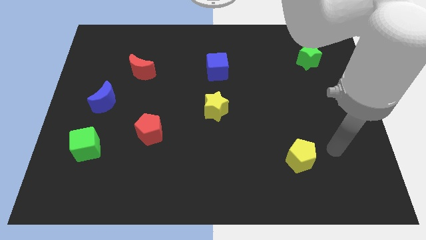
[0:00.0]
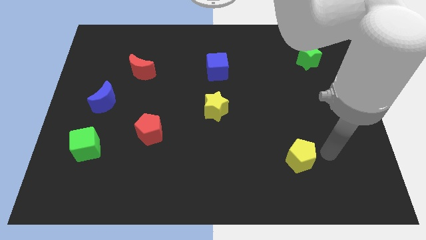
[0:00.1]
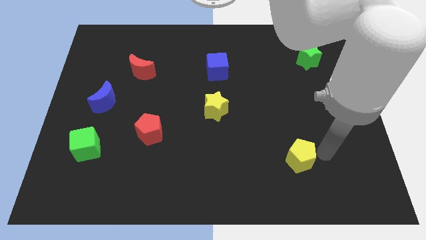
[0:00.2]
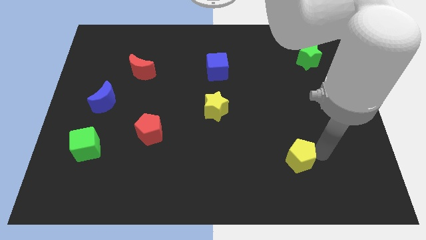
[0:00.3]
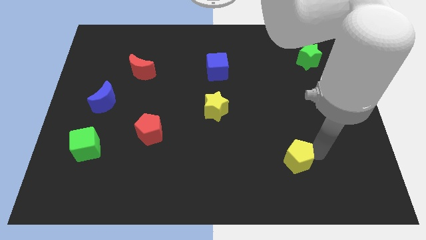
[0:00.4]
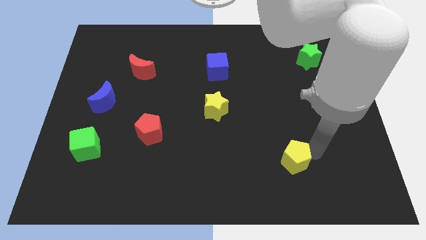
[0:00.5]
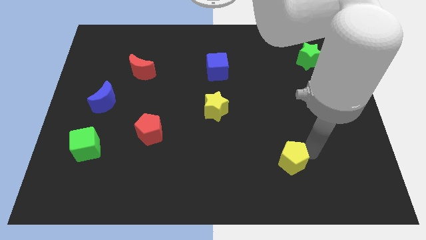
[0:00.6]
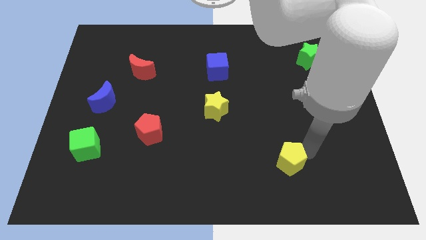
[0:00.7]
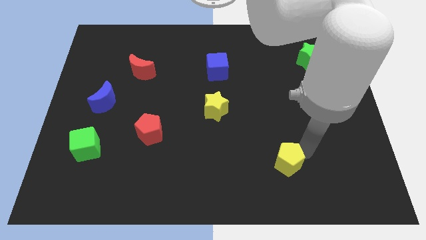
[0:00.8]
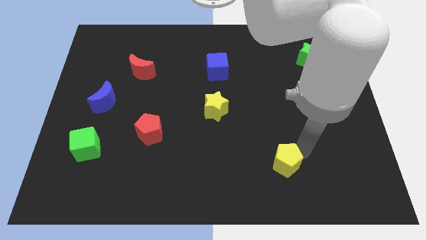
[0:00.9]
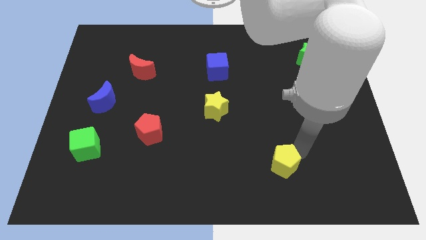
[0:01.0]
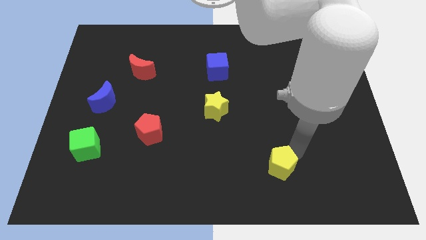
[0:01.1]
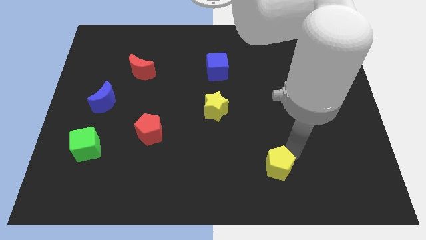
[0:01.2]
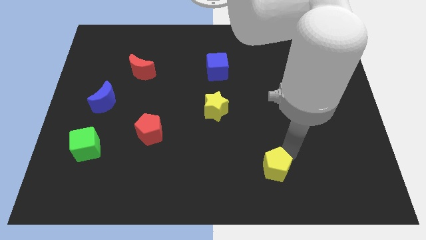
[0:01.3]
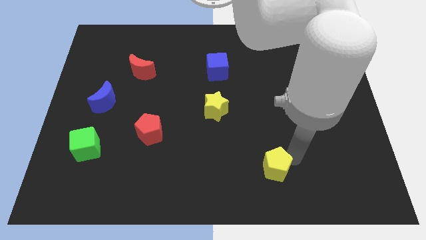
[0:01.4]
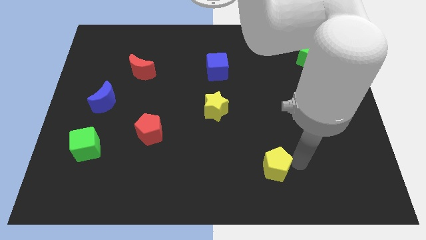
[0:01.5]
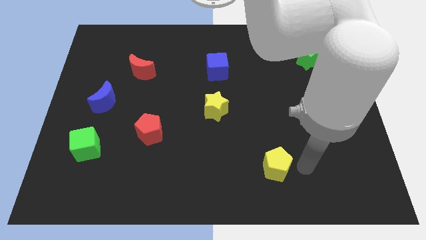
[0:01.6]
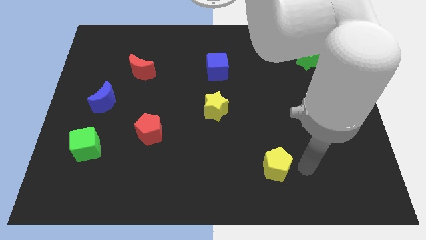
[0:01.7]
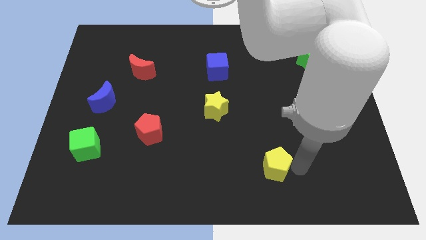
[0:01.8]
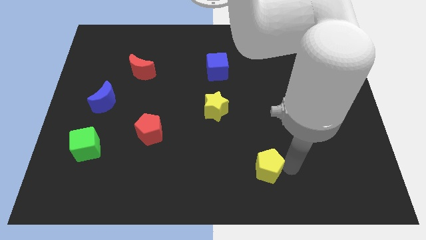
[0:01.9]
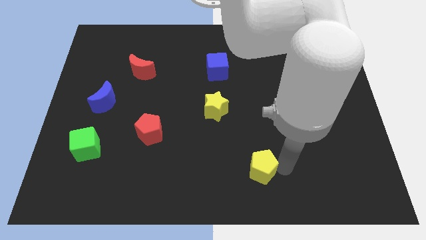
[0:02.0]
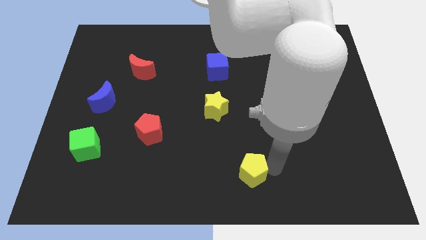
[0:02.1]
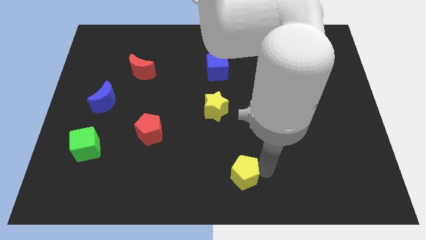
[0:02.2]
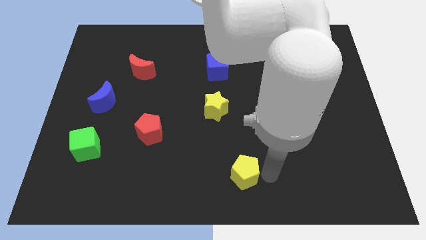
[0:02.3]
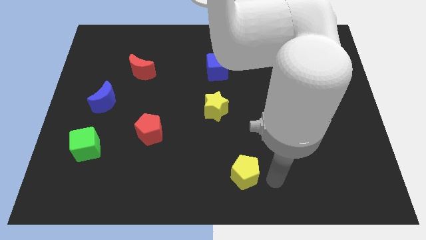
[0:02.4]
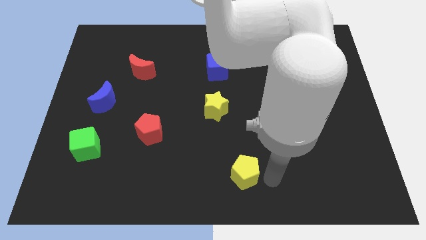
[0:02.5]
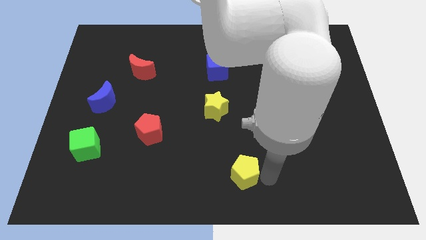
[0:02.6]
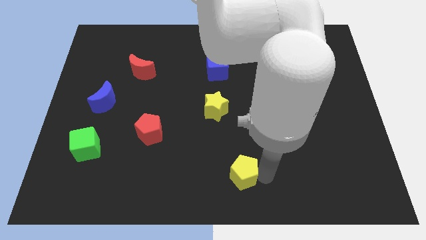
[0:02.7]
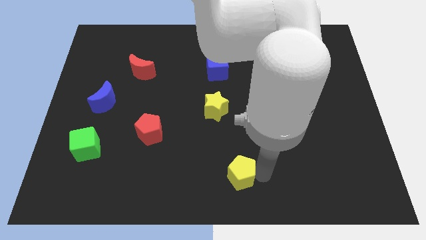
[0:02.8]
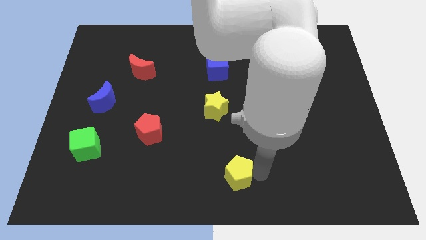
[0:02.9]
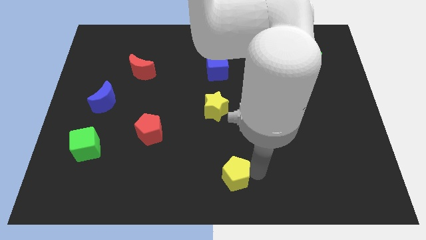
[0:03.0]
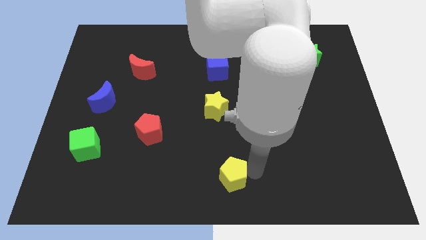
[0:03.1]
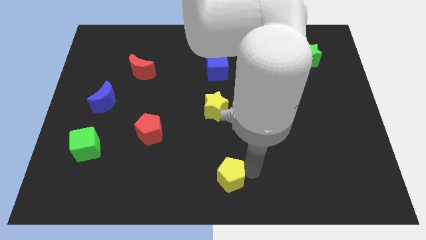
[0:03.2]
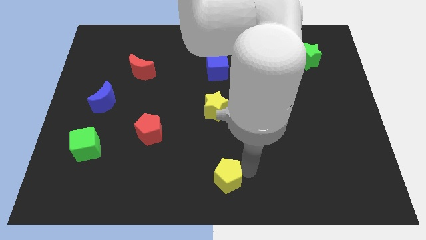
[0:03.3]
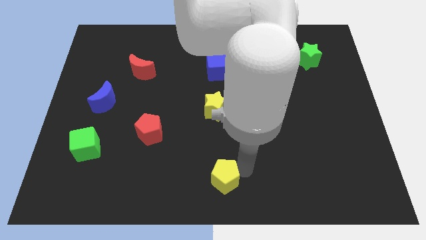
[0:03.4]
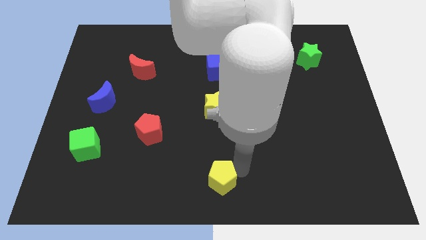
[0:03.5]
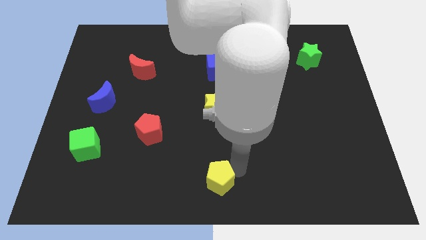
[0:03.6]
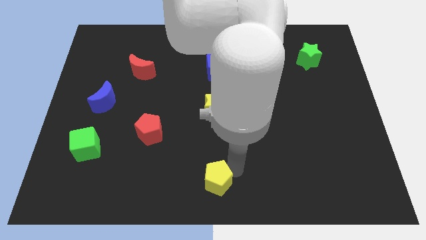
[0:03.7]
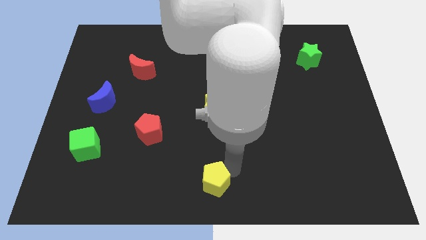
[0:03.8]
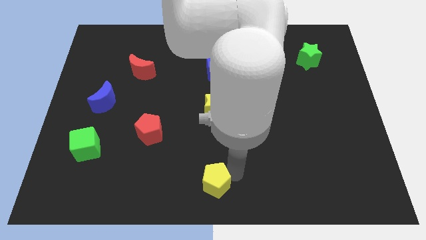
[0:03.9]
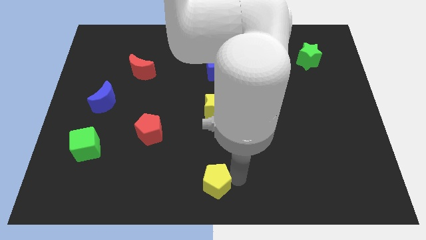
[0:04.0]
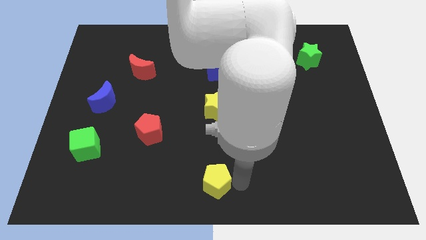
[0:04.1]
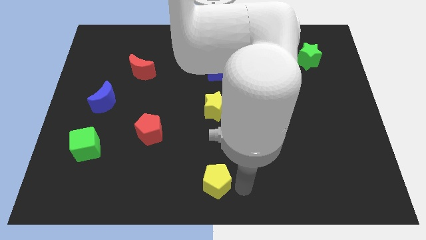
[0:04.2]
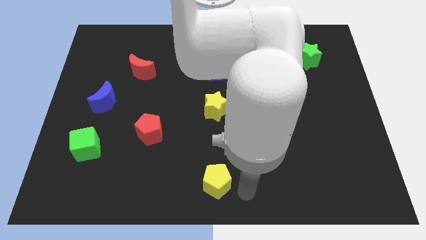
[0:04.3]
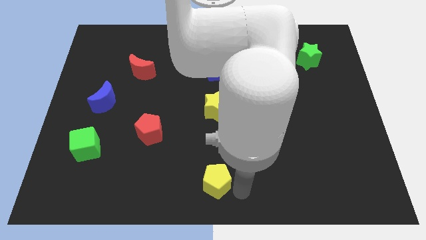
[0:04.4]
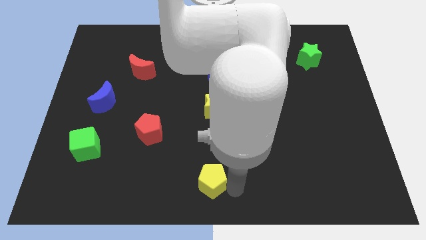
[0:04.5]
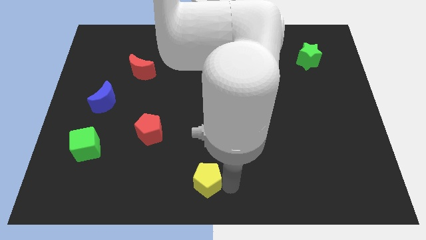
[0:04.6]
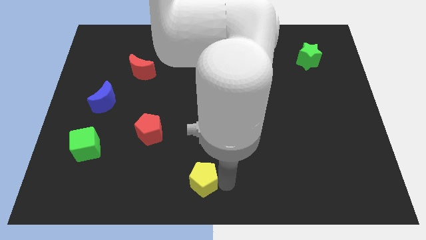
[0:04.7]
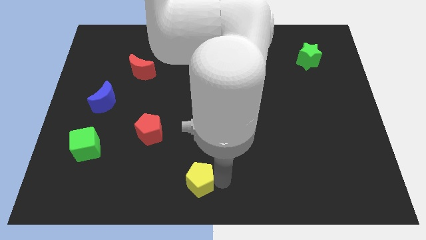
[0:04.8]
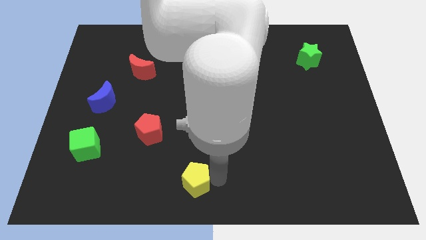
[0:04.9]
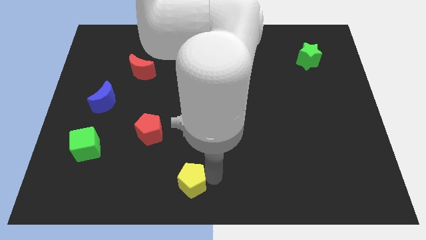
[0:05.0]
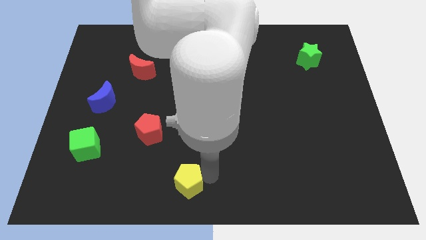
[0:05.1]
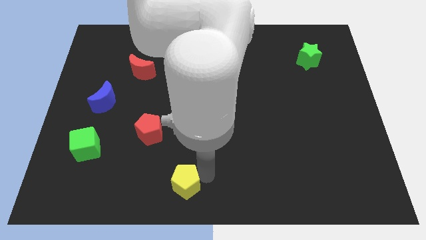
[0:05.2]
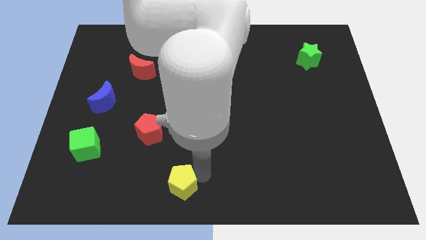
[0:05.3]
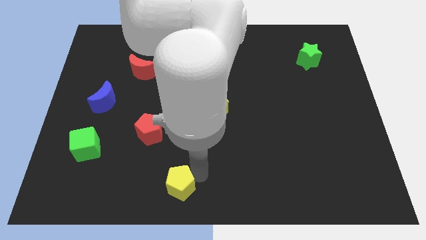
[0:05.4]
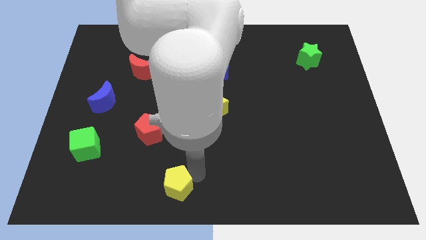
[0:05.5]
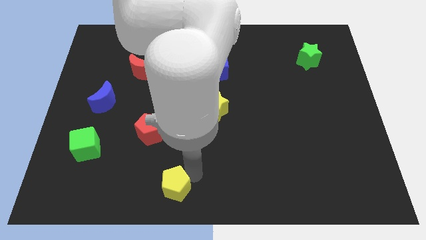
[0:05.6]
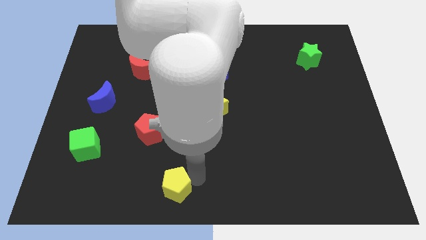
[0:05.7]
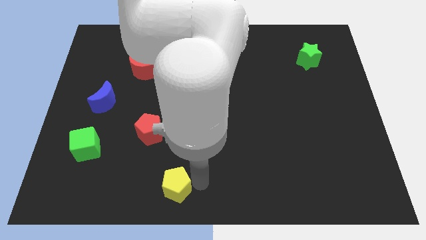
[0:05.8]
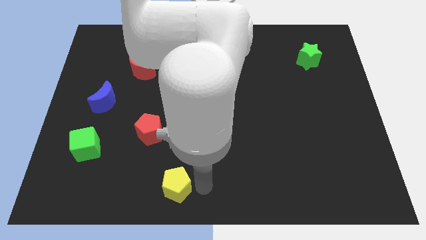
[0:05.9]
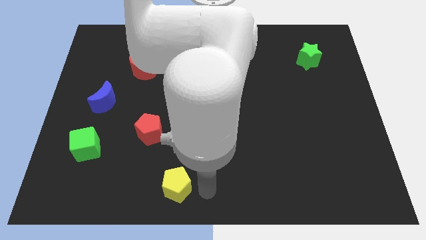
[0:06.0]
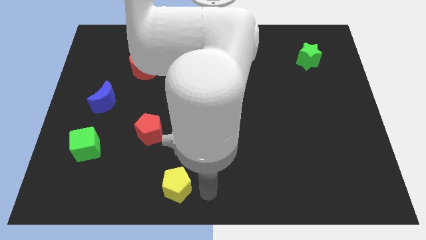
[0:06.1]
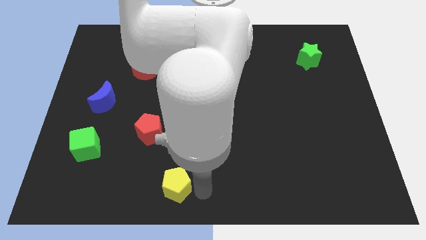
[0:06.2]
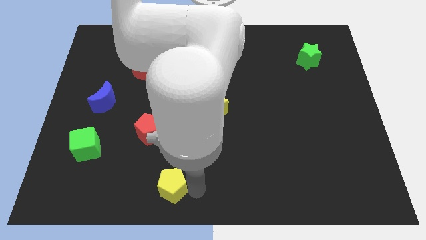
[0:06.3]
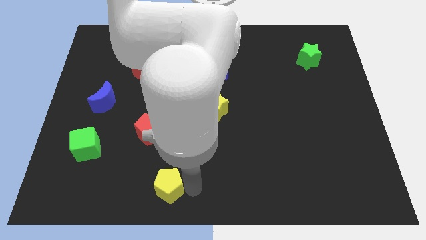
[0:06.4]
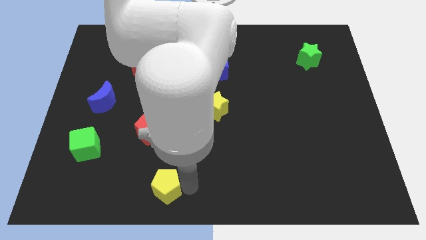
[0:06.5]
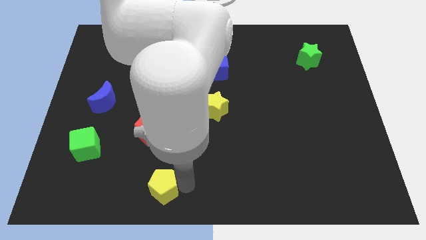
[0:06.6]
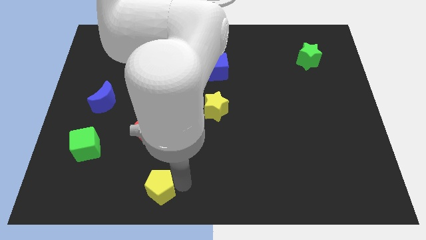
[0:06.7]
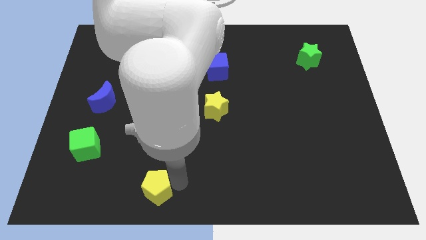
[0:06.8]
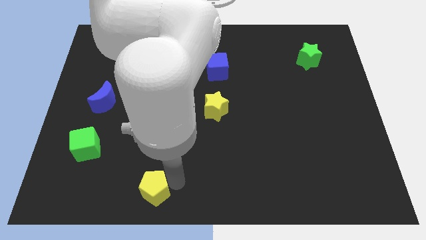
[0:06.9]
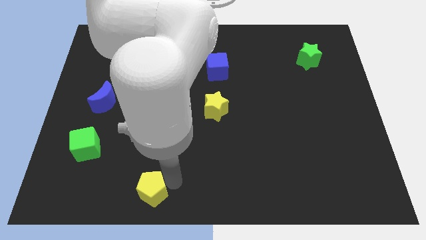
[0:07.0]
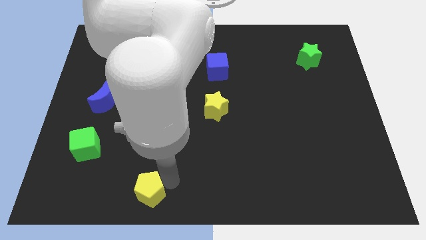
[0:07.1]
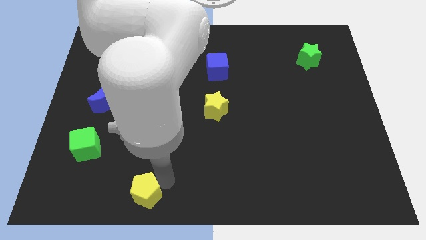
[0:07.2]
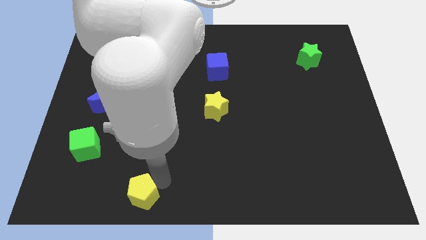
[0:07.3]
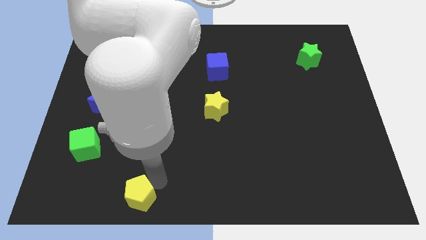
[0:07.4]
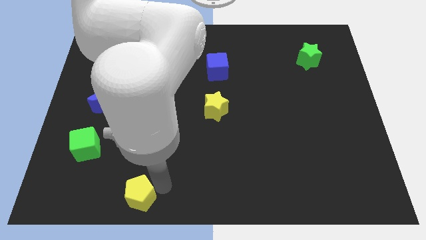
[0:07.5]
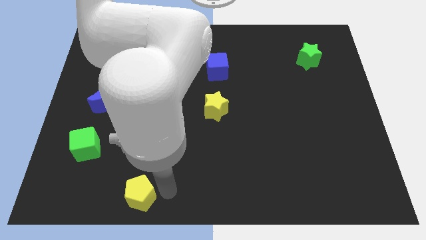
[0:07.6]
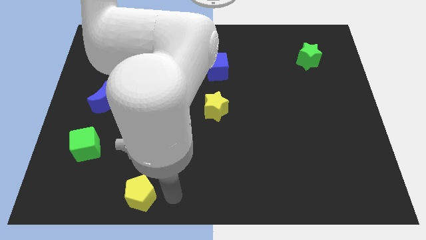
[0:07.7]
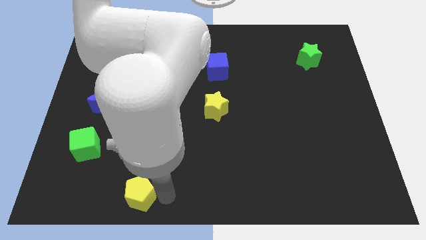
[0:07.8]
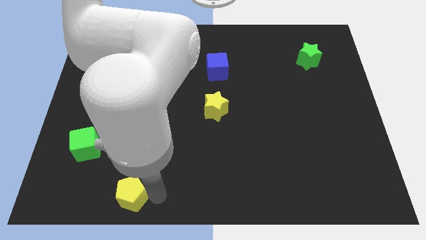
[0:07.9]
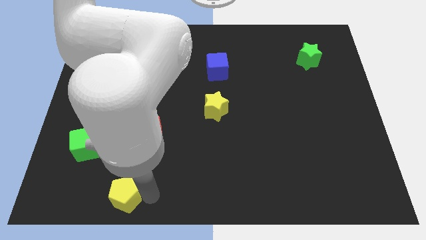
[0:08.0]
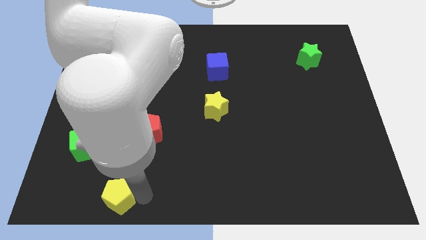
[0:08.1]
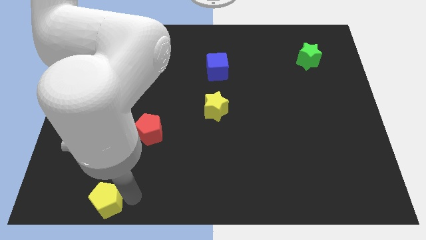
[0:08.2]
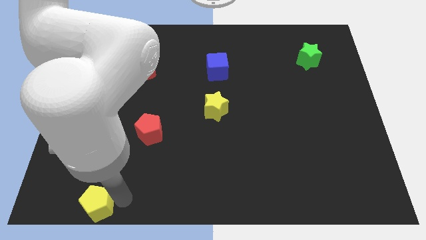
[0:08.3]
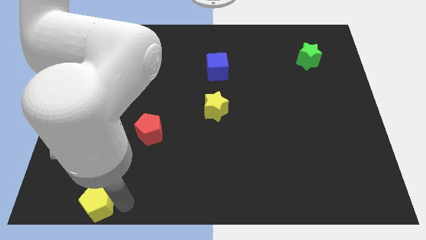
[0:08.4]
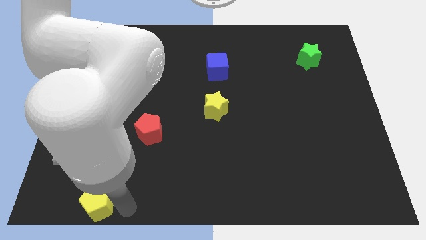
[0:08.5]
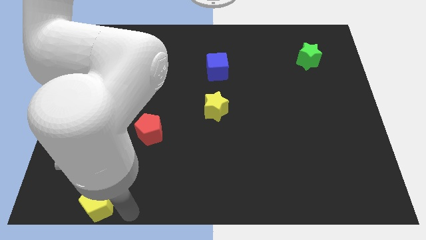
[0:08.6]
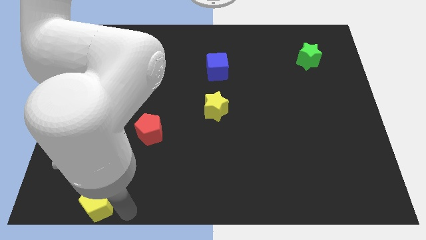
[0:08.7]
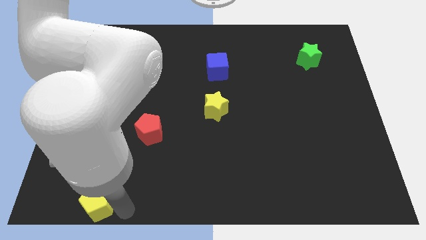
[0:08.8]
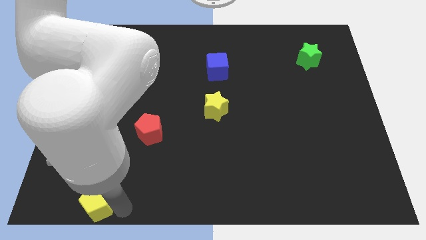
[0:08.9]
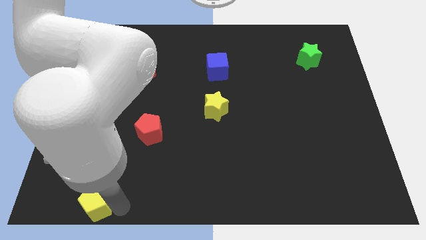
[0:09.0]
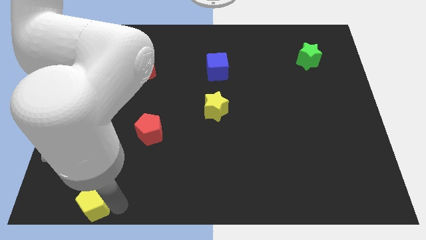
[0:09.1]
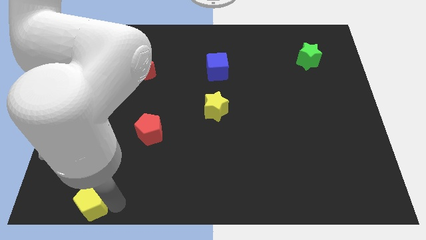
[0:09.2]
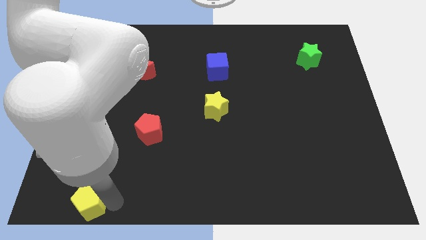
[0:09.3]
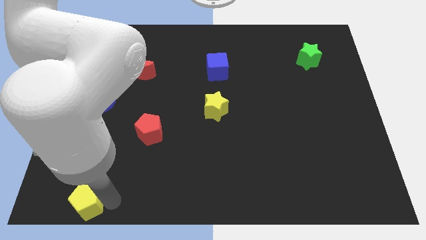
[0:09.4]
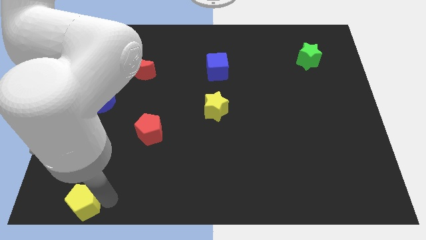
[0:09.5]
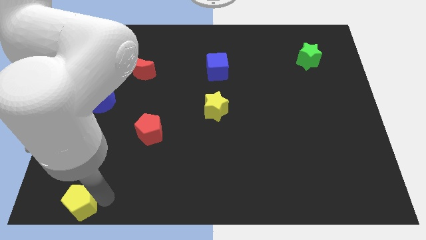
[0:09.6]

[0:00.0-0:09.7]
push the yellow pentagon to the bottom left of the board
